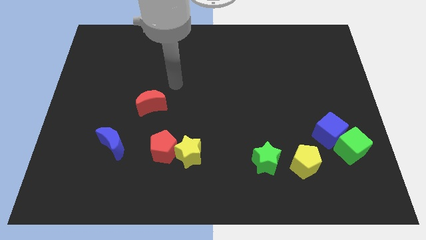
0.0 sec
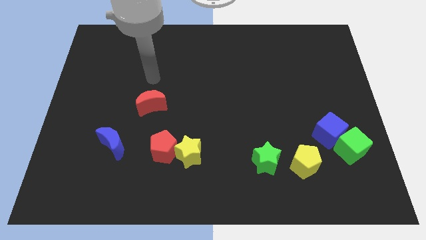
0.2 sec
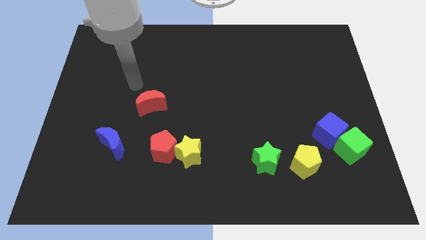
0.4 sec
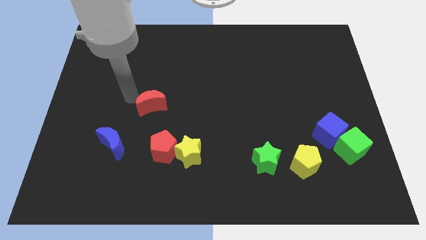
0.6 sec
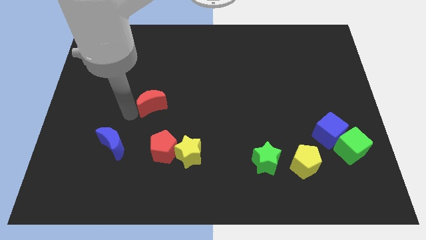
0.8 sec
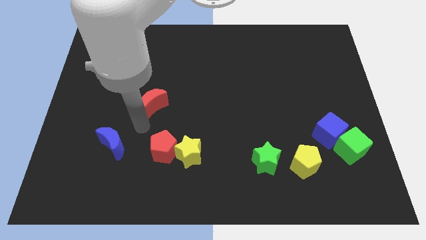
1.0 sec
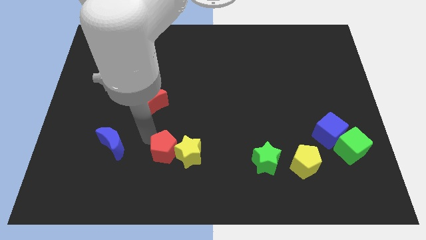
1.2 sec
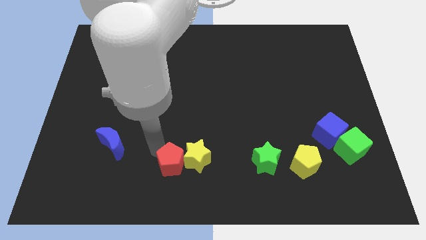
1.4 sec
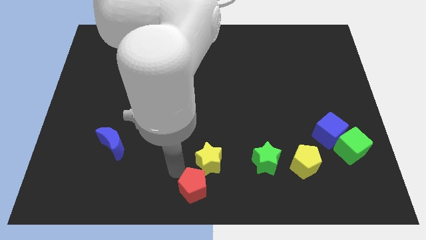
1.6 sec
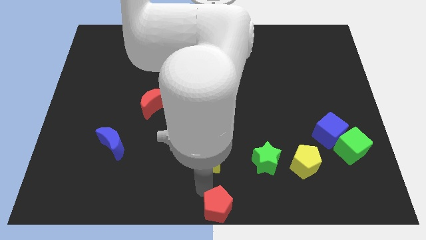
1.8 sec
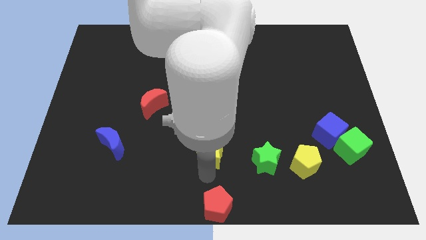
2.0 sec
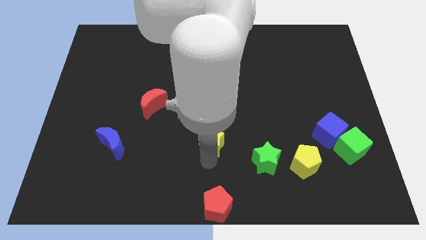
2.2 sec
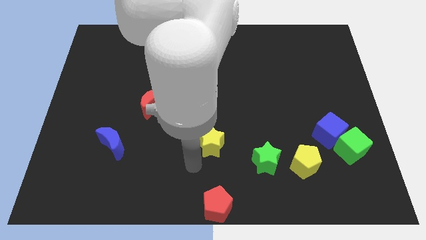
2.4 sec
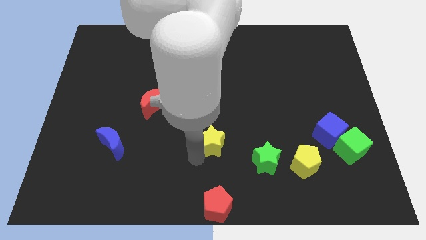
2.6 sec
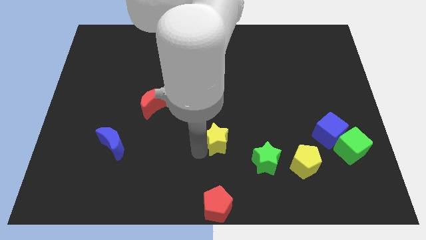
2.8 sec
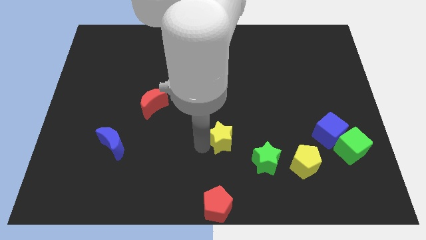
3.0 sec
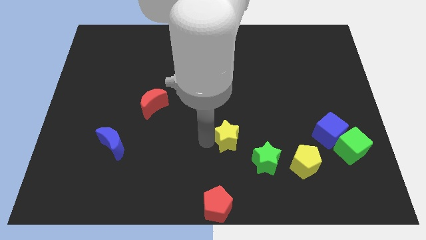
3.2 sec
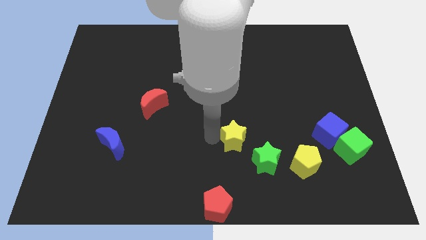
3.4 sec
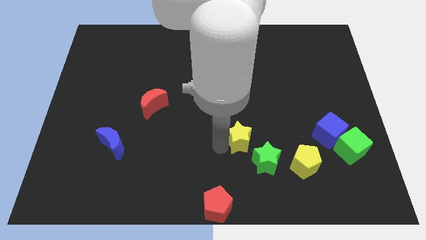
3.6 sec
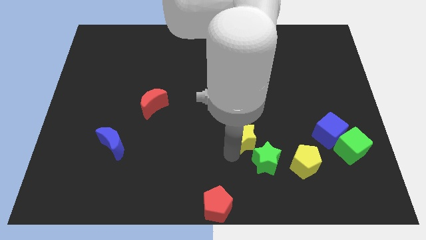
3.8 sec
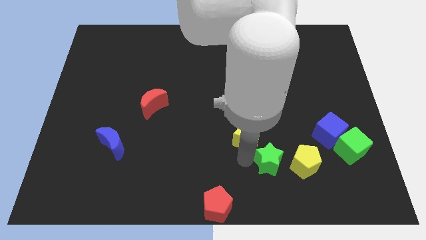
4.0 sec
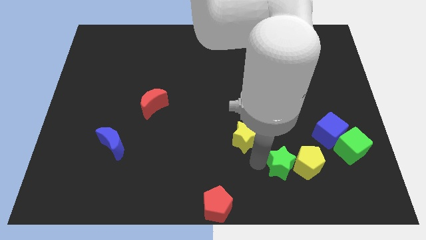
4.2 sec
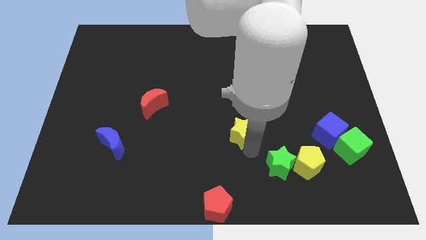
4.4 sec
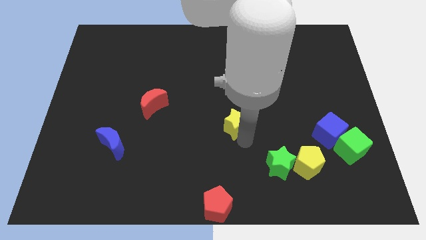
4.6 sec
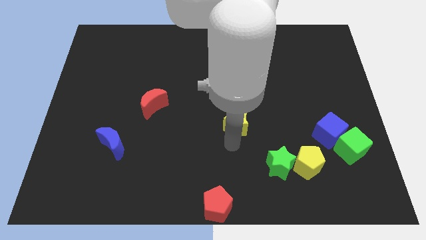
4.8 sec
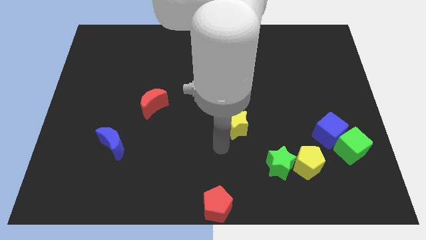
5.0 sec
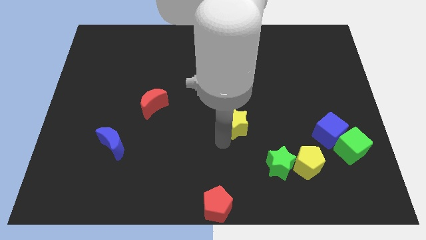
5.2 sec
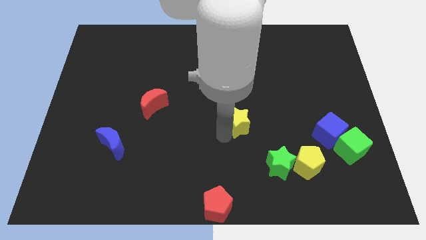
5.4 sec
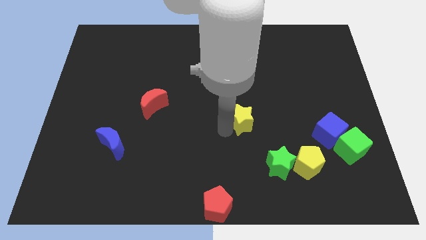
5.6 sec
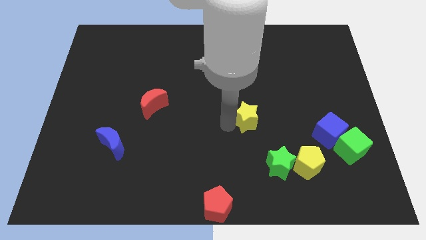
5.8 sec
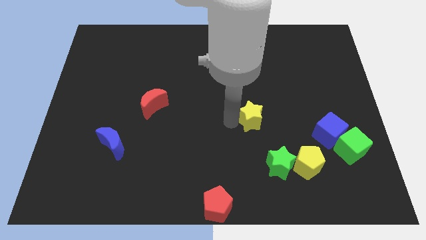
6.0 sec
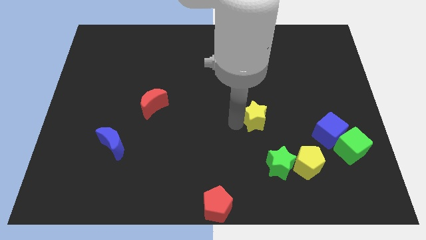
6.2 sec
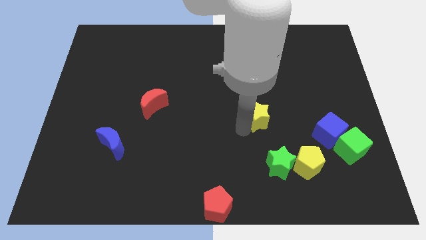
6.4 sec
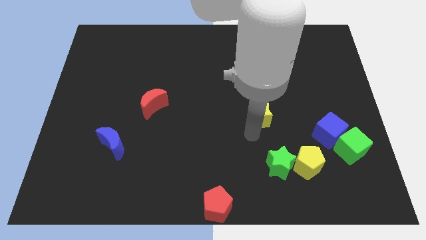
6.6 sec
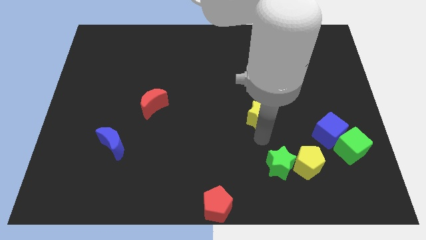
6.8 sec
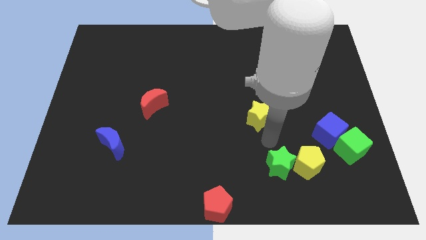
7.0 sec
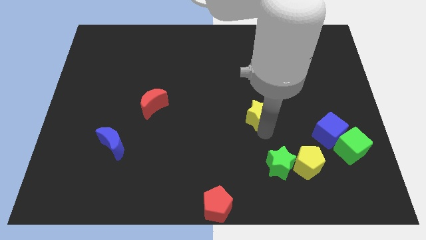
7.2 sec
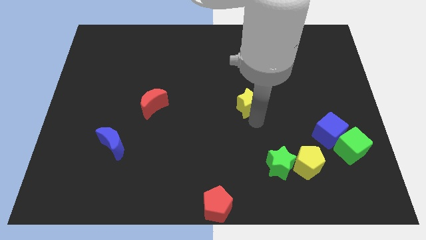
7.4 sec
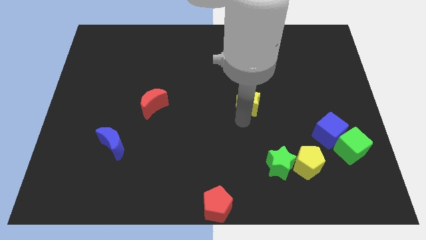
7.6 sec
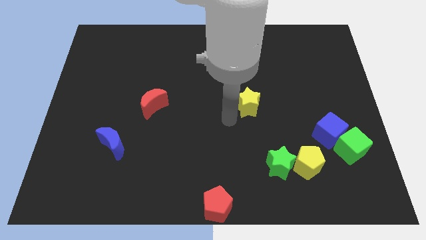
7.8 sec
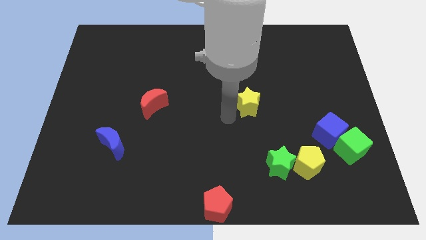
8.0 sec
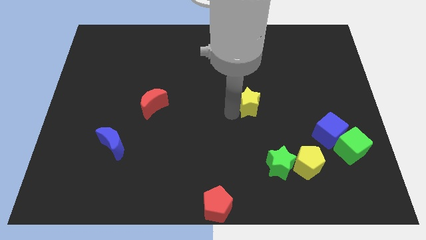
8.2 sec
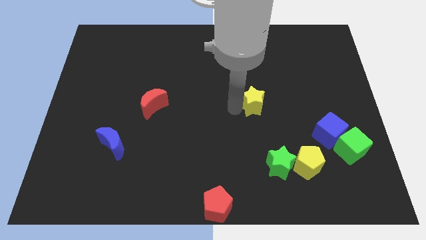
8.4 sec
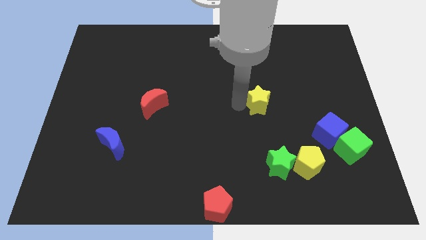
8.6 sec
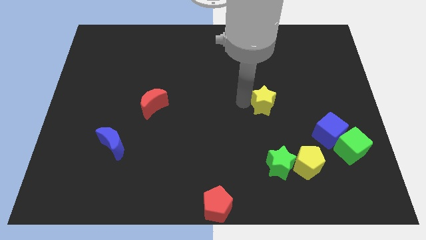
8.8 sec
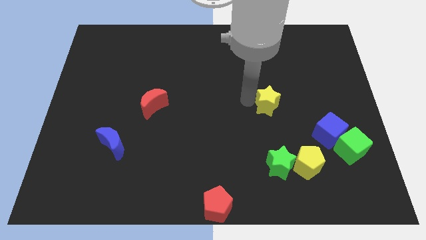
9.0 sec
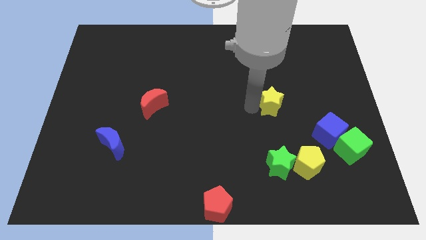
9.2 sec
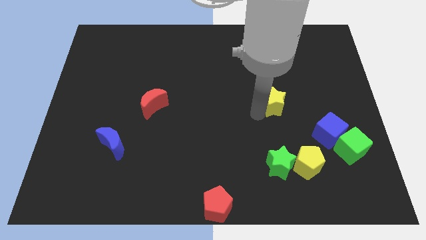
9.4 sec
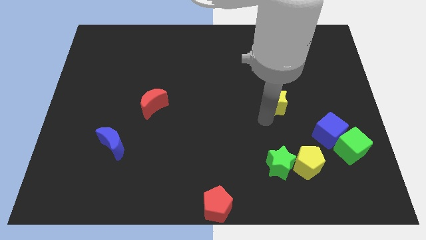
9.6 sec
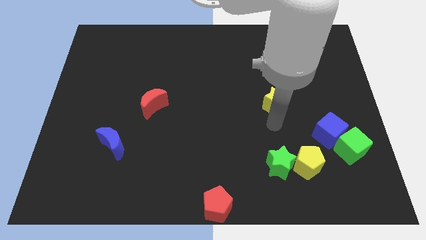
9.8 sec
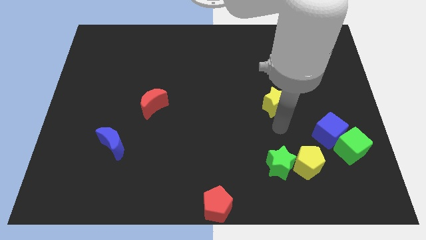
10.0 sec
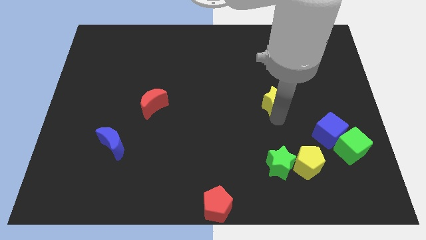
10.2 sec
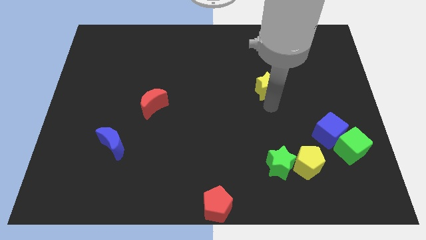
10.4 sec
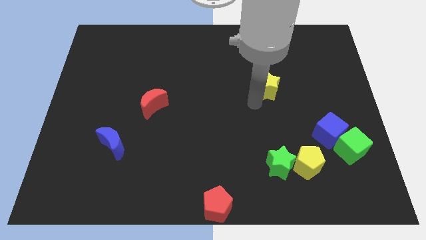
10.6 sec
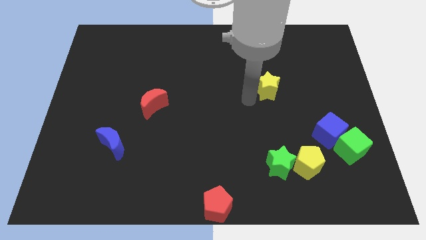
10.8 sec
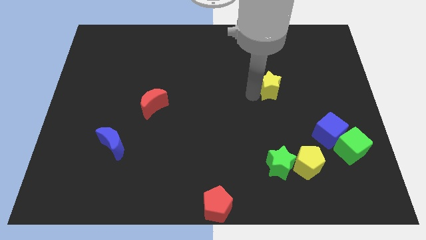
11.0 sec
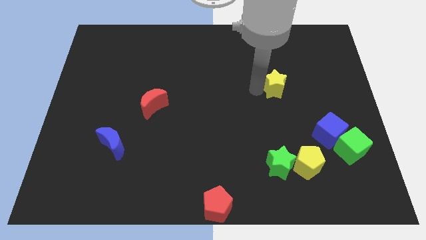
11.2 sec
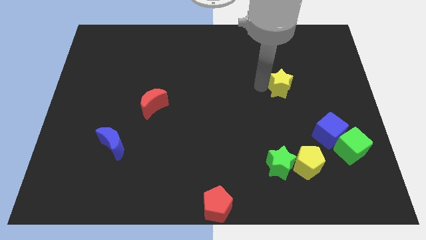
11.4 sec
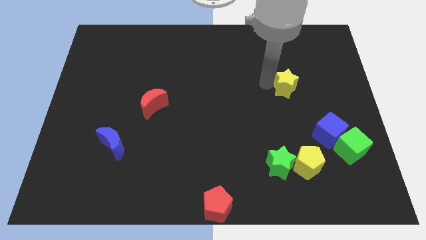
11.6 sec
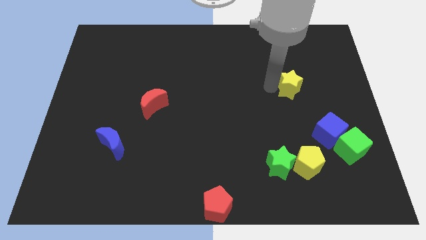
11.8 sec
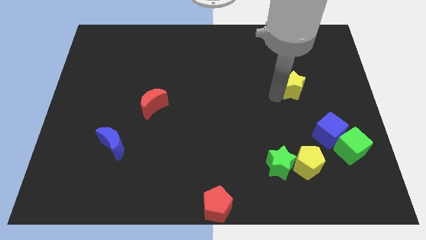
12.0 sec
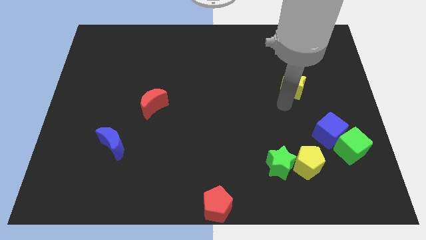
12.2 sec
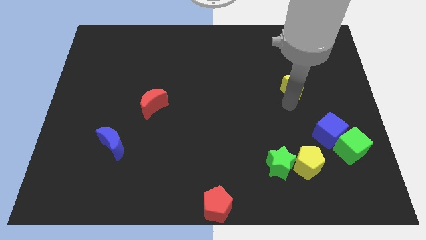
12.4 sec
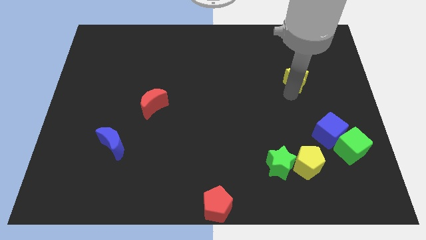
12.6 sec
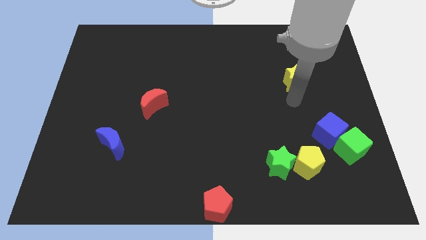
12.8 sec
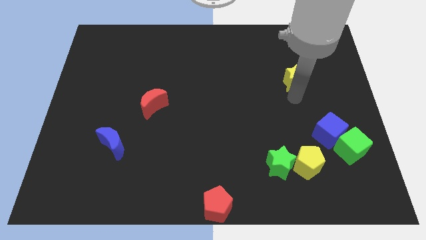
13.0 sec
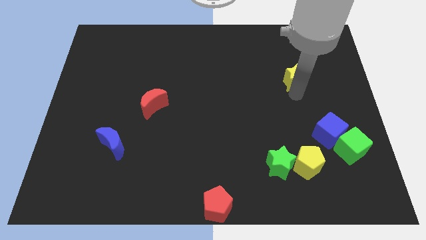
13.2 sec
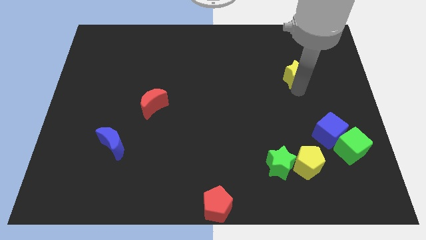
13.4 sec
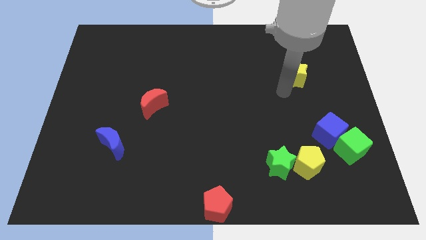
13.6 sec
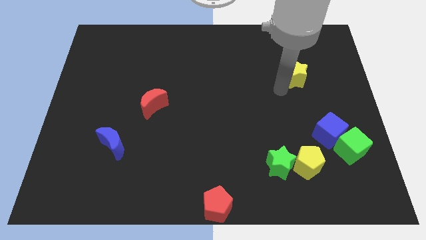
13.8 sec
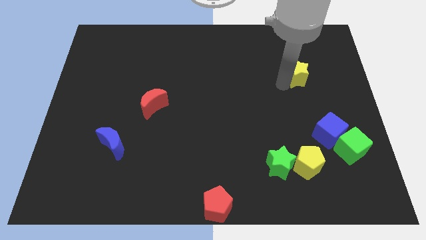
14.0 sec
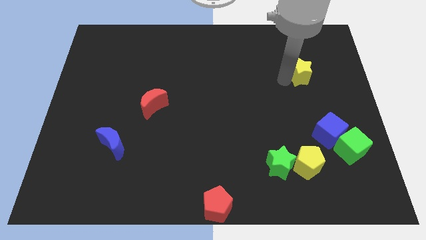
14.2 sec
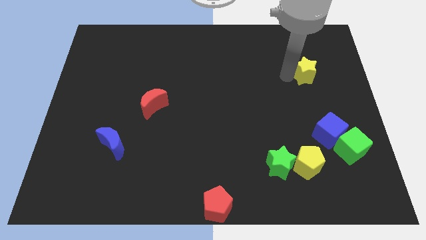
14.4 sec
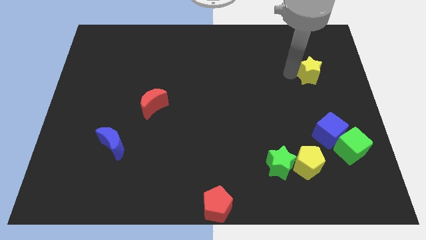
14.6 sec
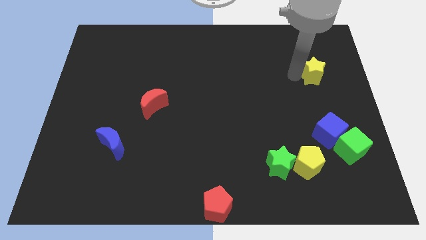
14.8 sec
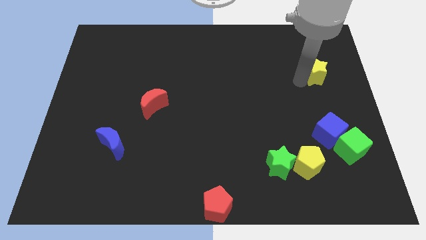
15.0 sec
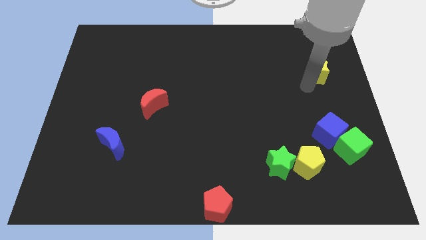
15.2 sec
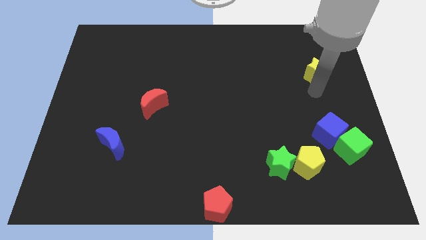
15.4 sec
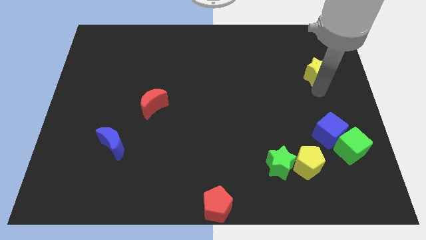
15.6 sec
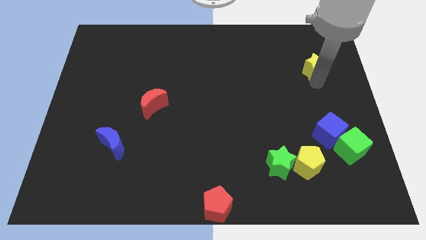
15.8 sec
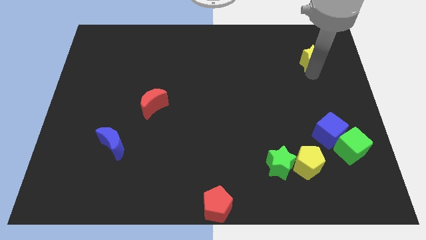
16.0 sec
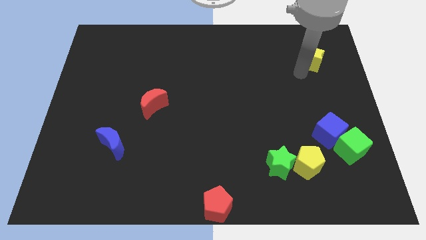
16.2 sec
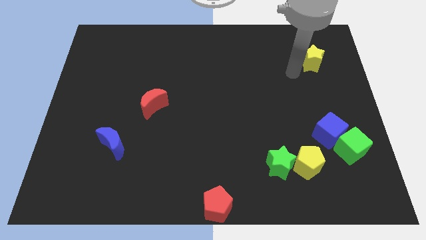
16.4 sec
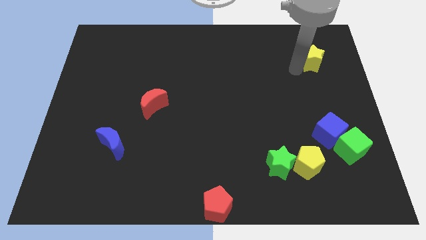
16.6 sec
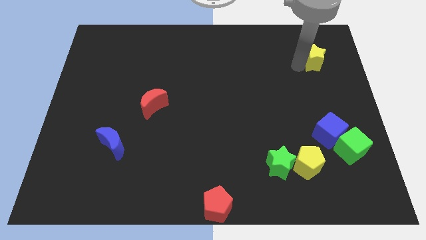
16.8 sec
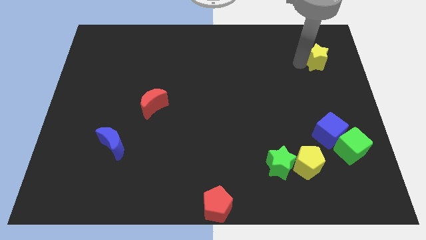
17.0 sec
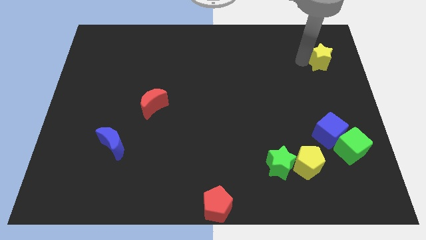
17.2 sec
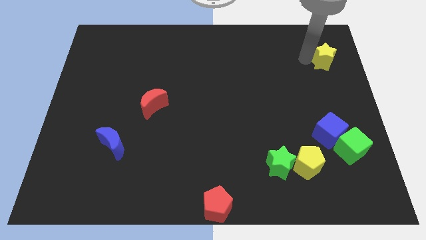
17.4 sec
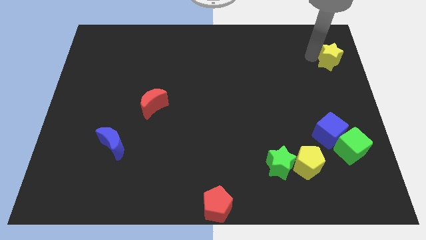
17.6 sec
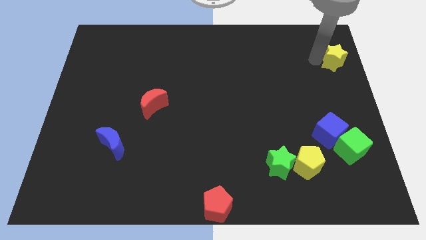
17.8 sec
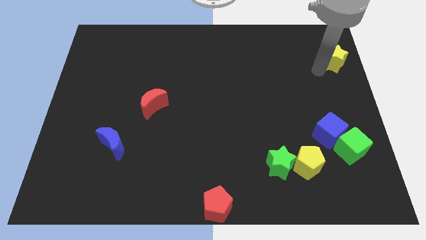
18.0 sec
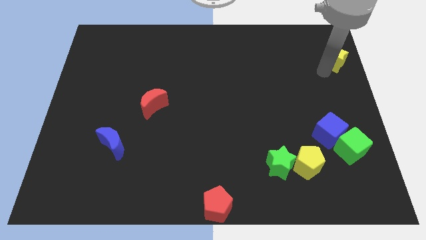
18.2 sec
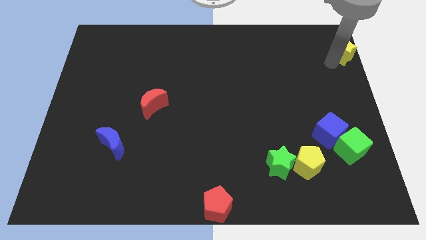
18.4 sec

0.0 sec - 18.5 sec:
push the yellow star to the top right of the board
